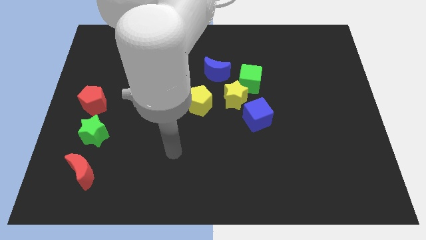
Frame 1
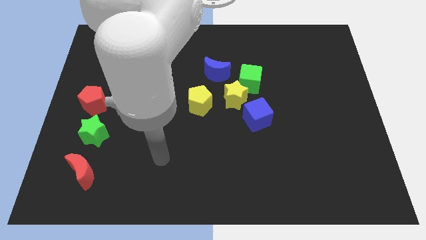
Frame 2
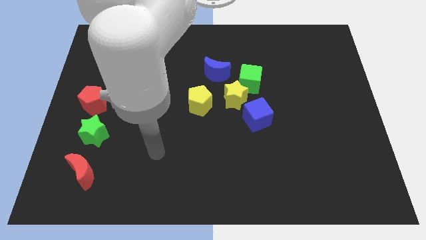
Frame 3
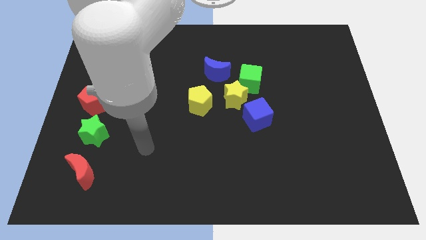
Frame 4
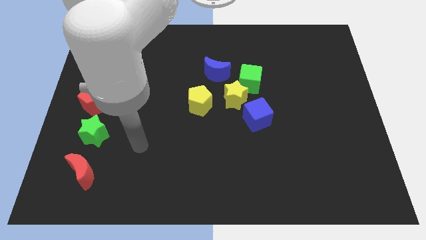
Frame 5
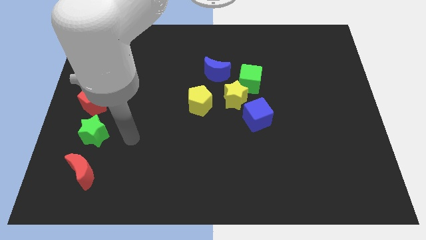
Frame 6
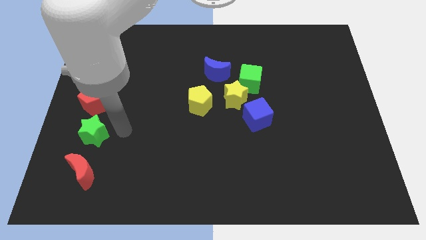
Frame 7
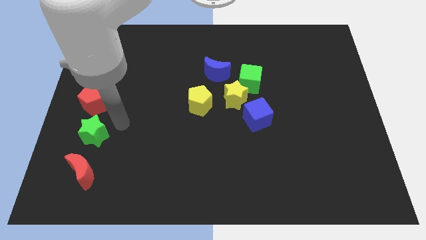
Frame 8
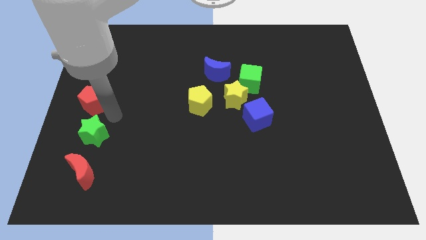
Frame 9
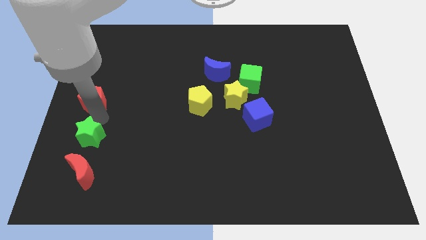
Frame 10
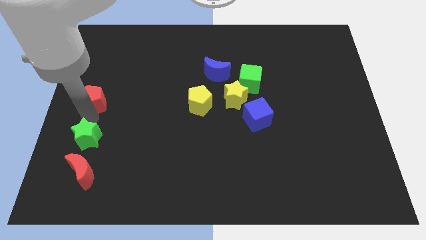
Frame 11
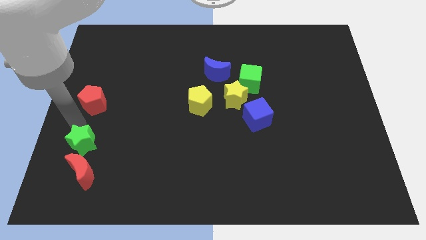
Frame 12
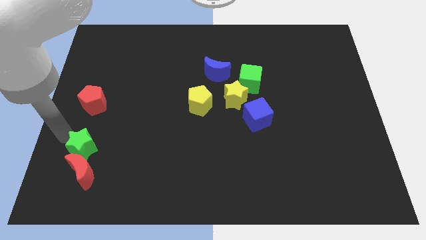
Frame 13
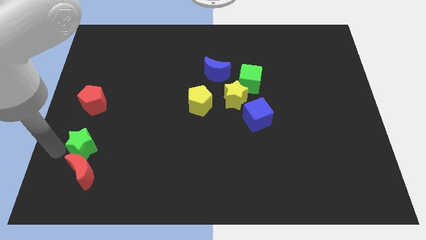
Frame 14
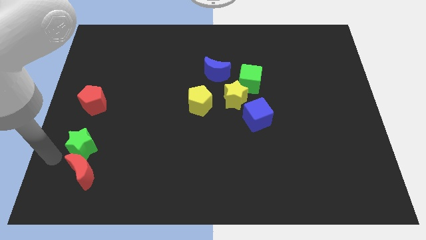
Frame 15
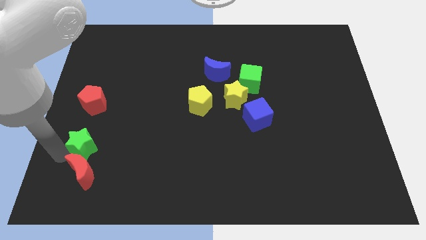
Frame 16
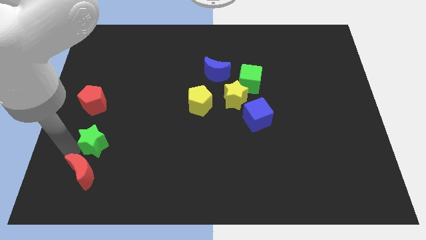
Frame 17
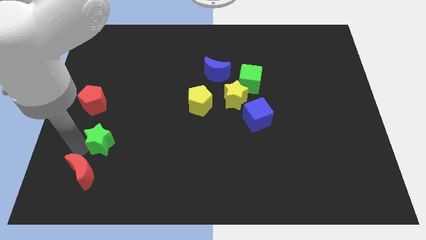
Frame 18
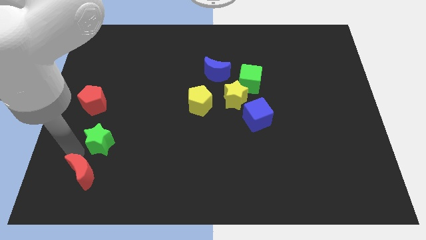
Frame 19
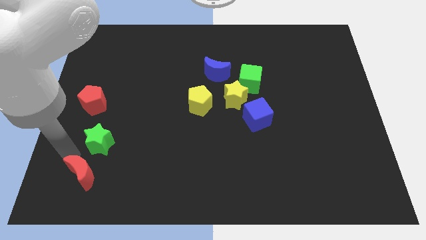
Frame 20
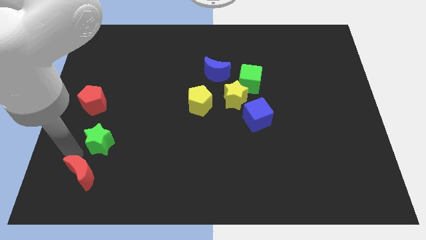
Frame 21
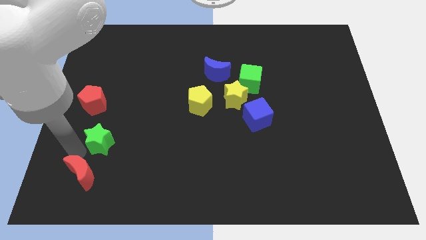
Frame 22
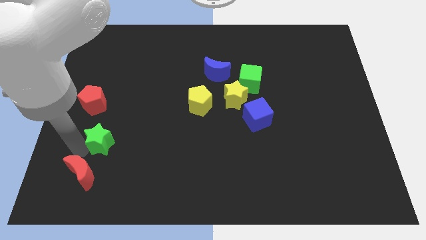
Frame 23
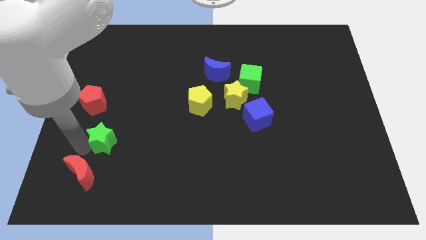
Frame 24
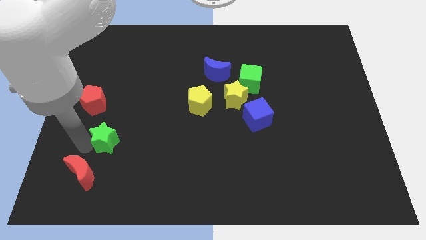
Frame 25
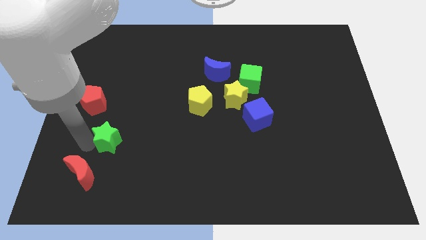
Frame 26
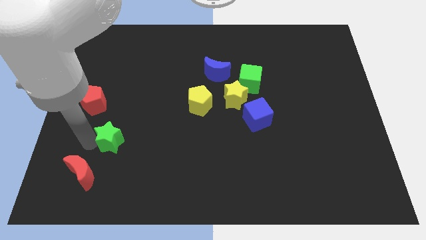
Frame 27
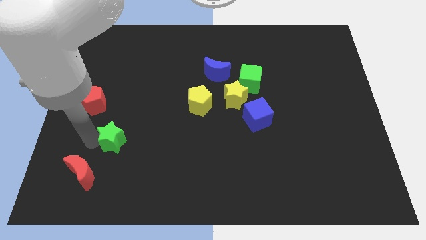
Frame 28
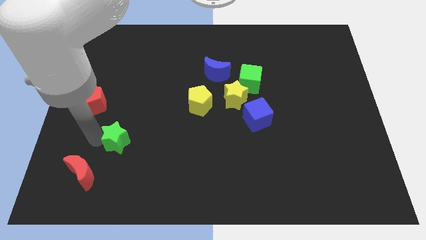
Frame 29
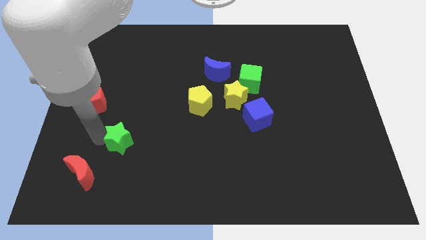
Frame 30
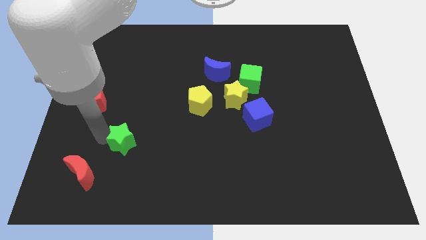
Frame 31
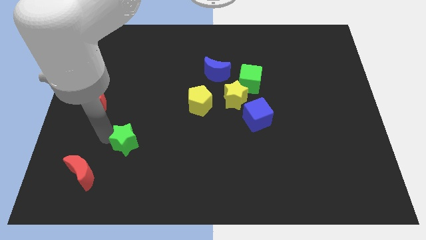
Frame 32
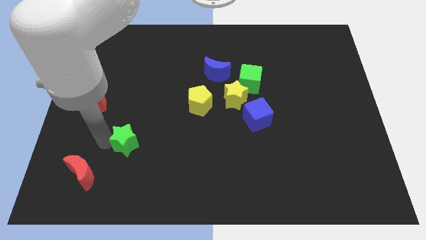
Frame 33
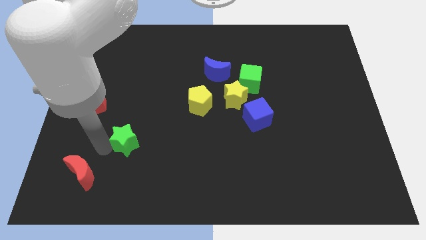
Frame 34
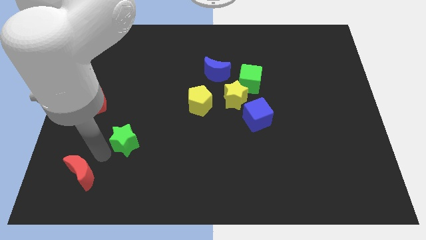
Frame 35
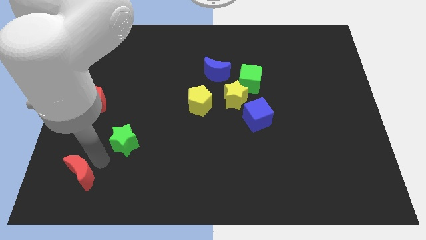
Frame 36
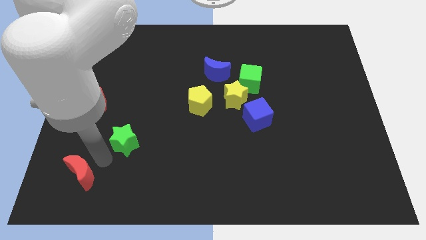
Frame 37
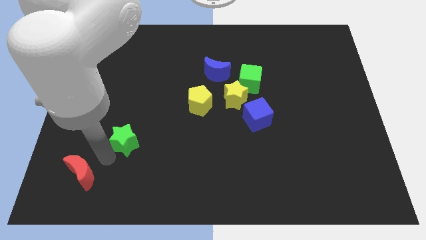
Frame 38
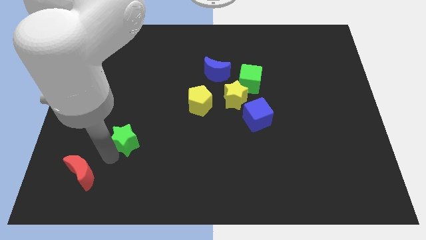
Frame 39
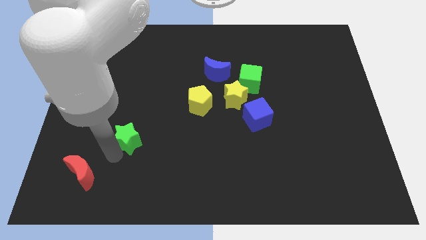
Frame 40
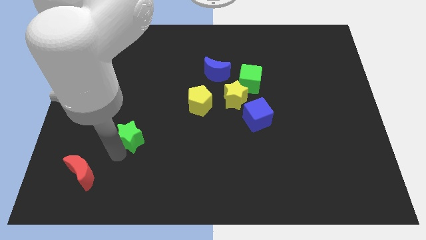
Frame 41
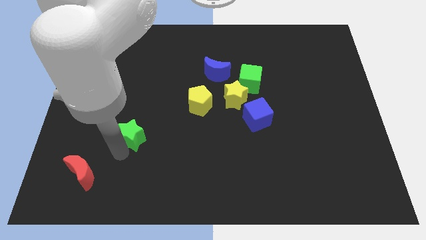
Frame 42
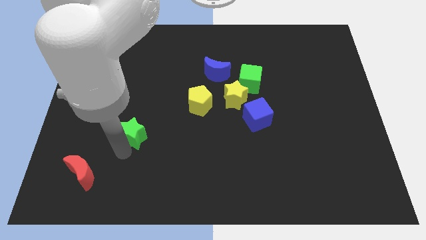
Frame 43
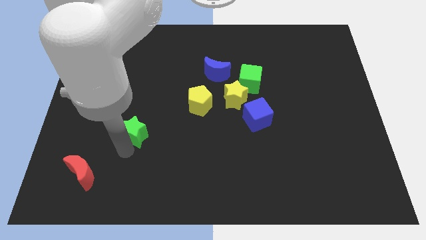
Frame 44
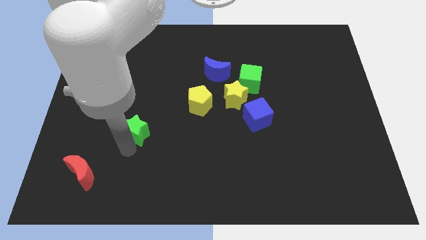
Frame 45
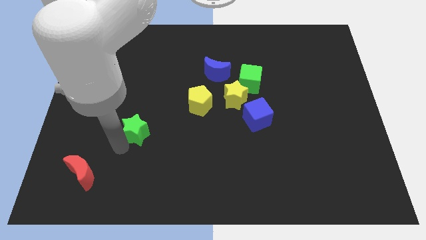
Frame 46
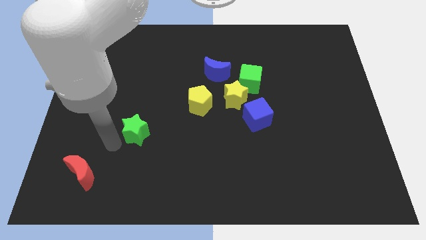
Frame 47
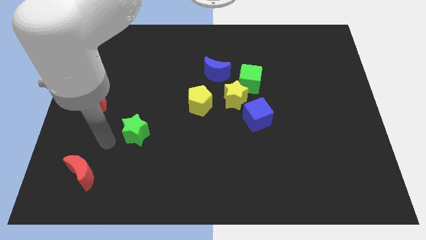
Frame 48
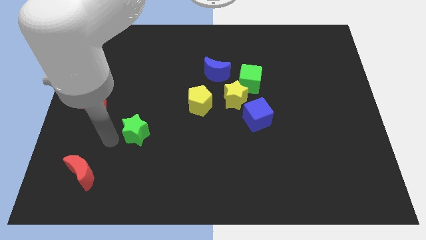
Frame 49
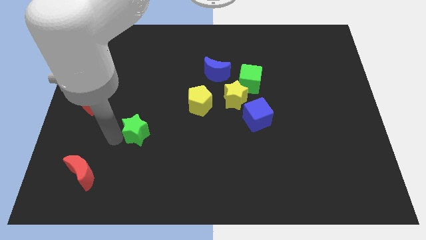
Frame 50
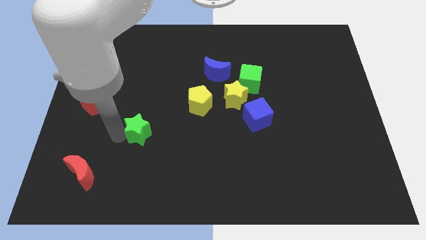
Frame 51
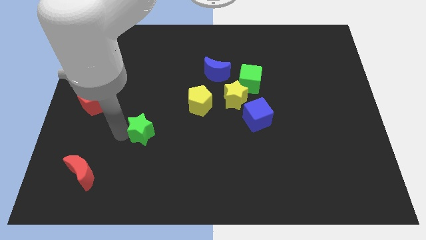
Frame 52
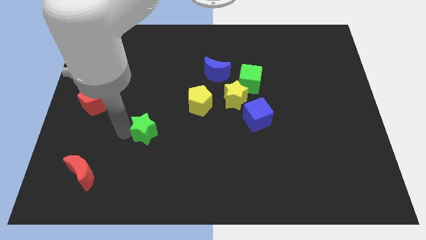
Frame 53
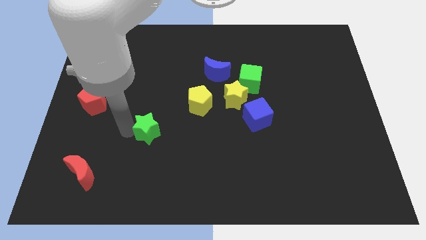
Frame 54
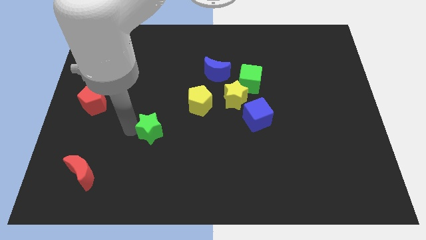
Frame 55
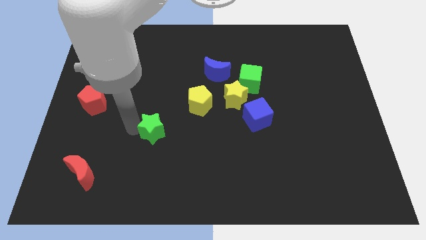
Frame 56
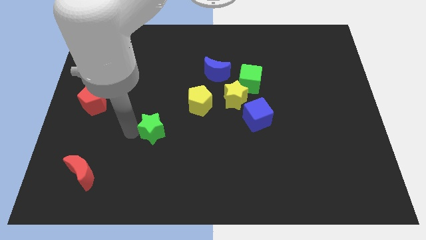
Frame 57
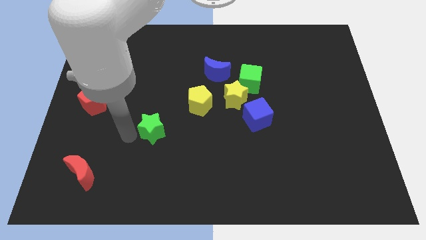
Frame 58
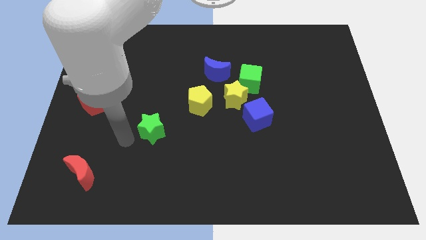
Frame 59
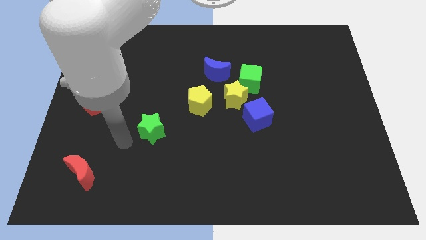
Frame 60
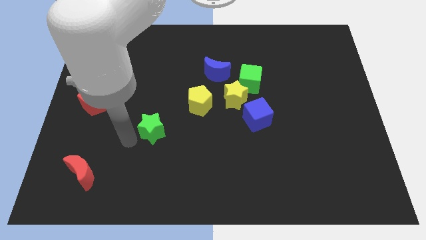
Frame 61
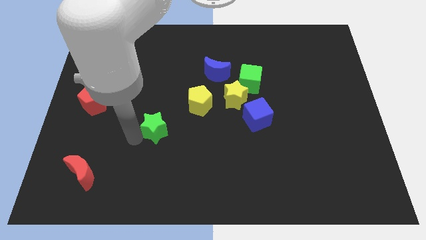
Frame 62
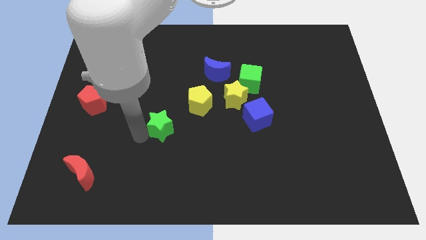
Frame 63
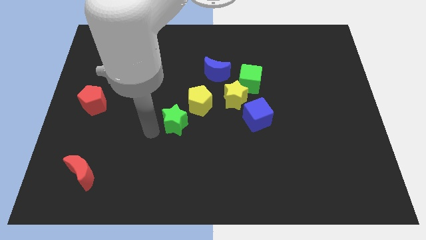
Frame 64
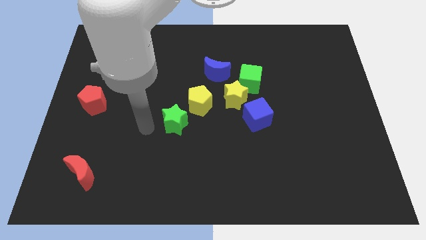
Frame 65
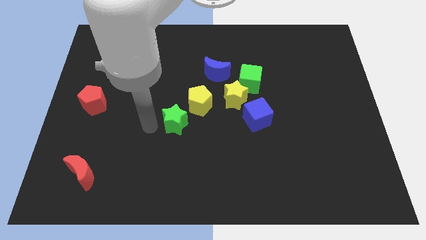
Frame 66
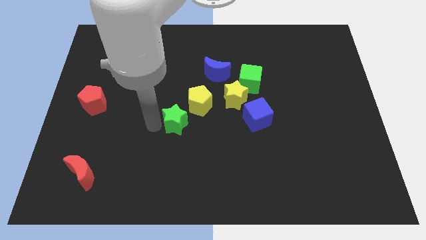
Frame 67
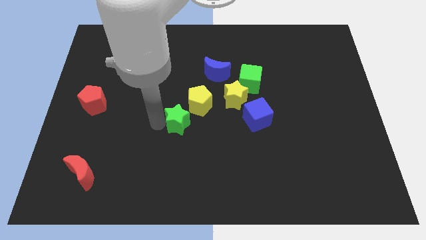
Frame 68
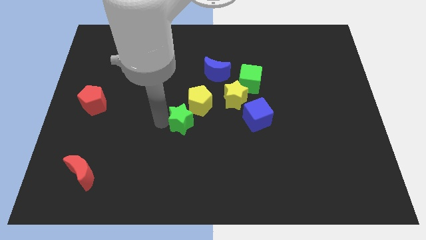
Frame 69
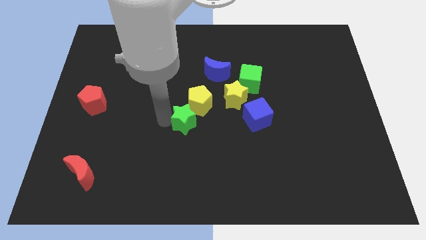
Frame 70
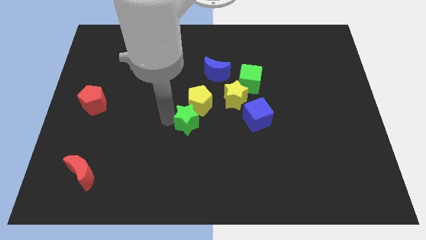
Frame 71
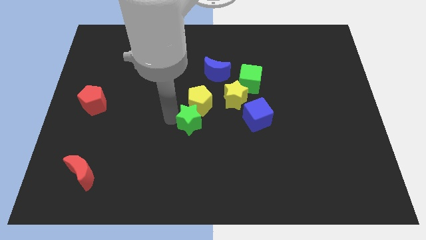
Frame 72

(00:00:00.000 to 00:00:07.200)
push the green star left of the blue cube
